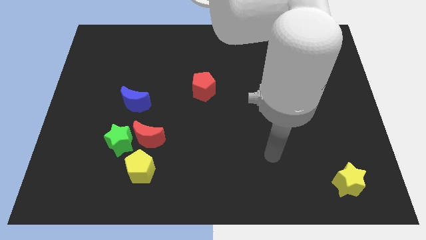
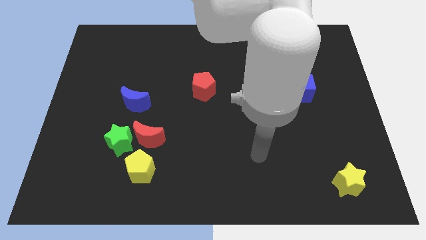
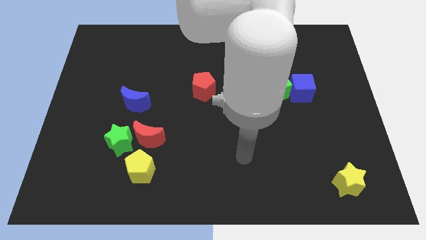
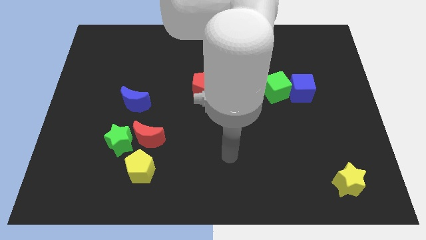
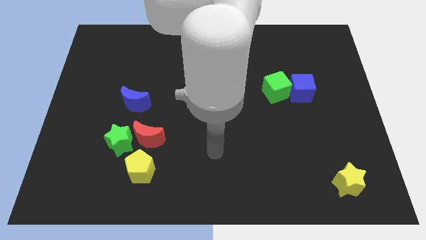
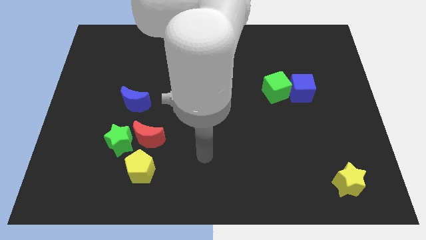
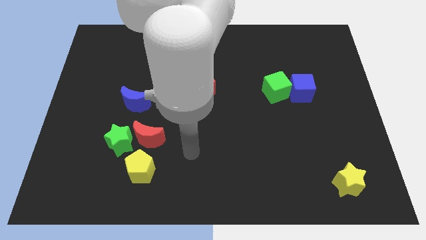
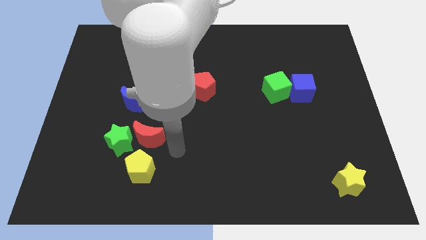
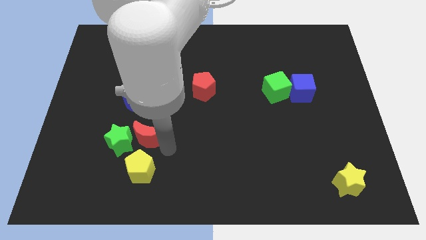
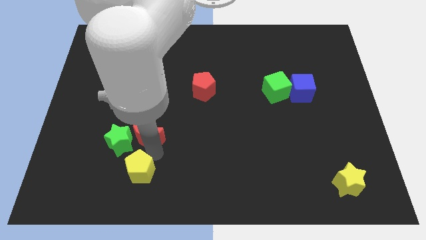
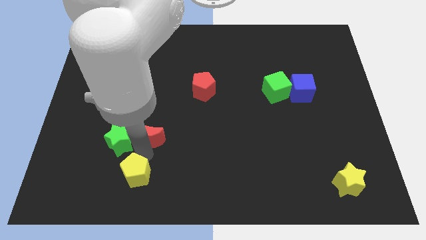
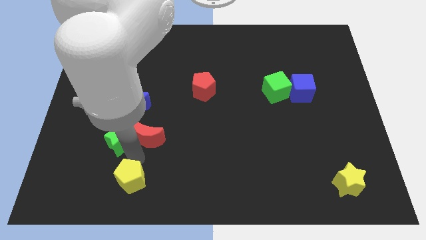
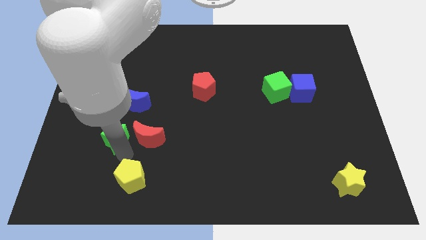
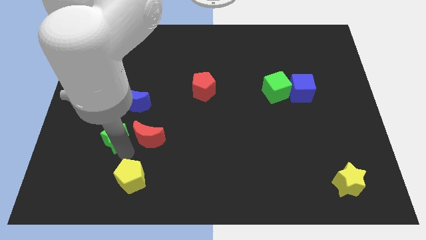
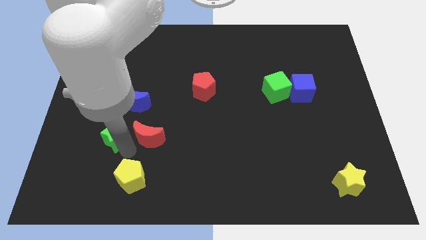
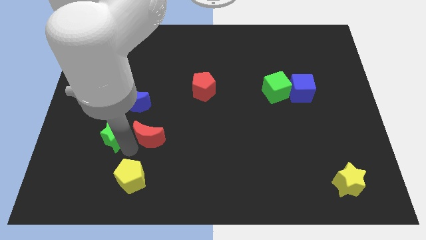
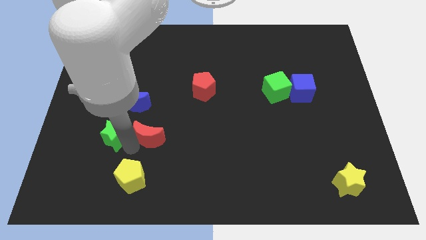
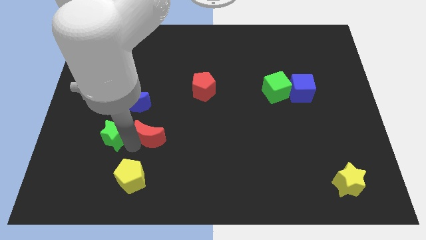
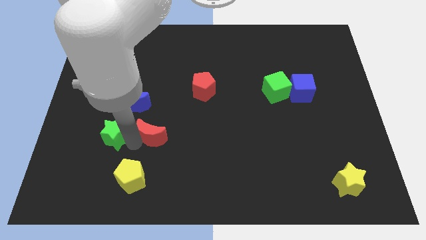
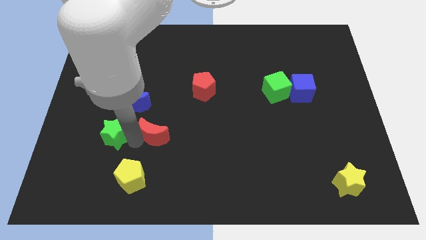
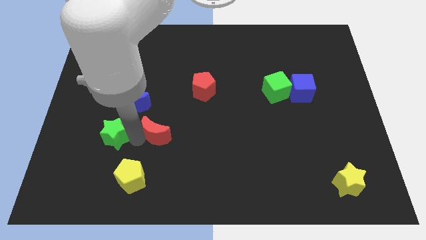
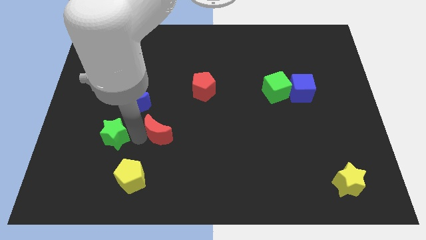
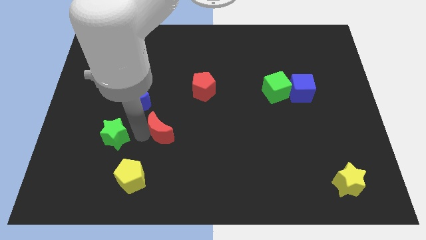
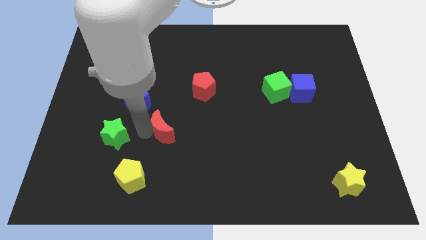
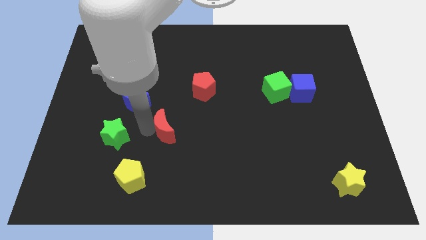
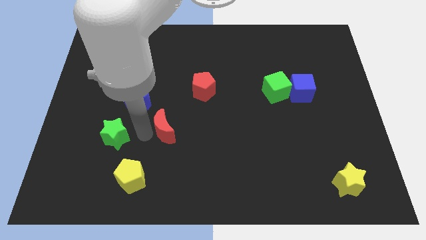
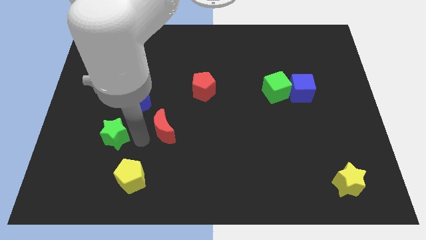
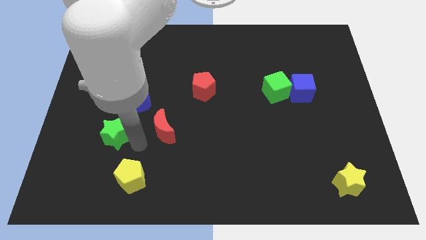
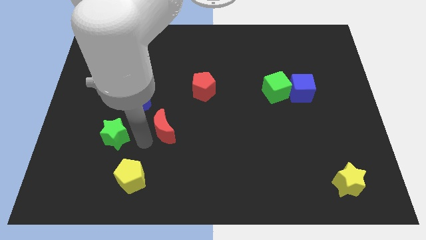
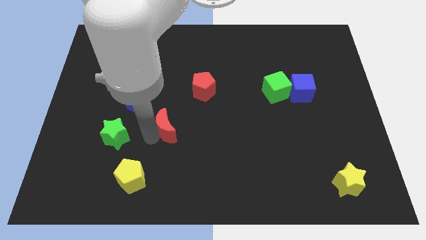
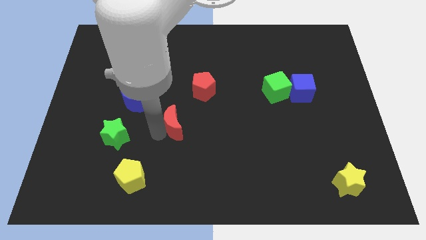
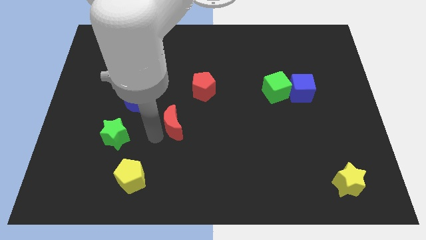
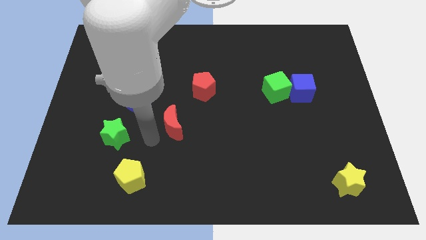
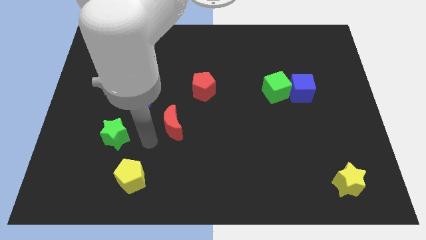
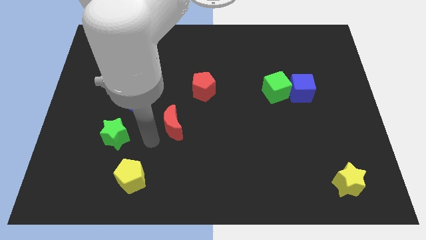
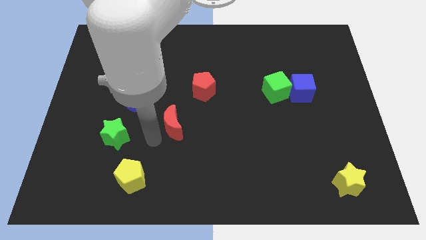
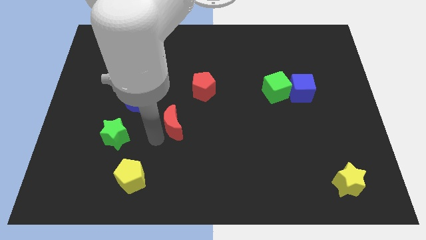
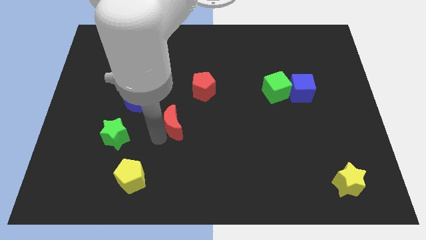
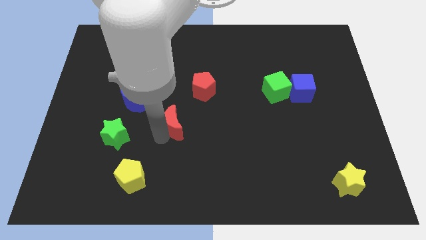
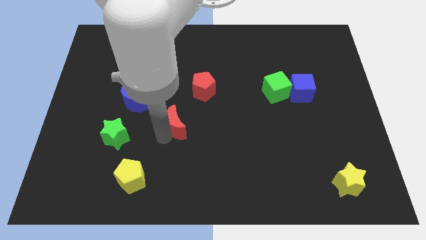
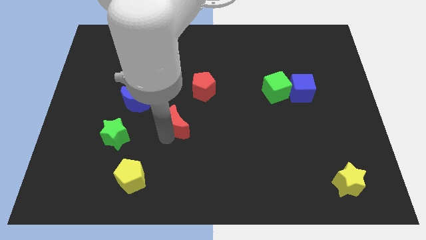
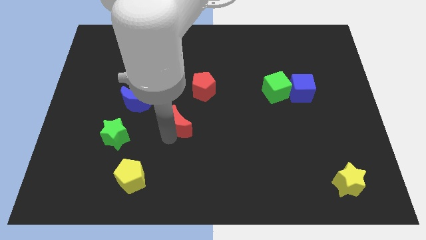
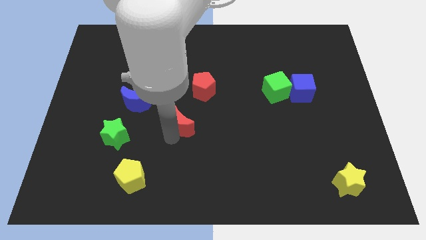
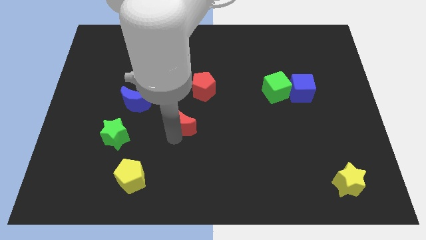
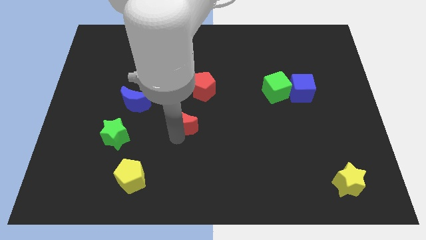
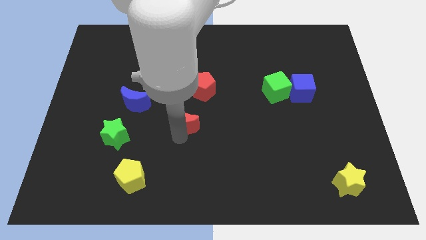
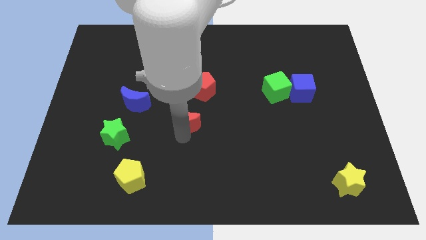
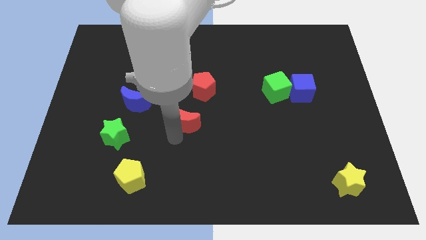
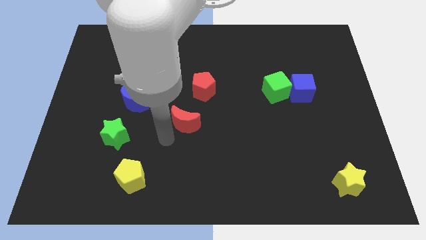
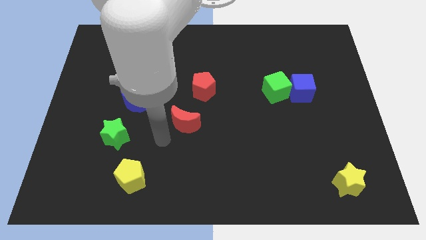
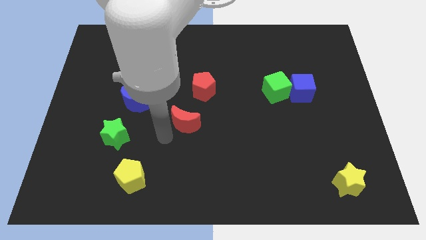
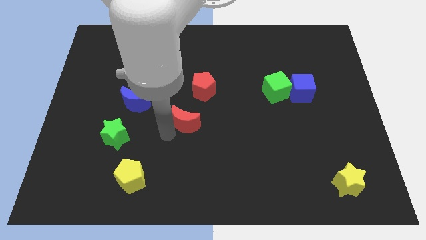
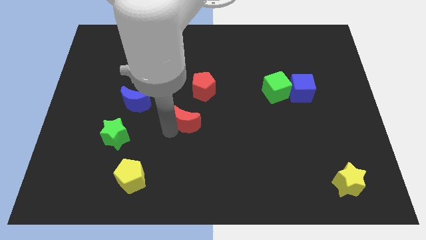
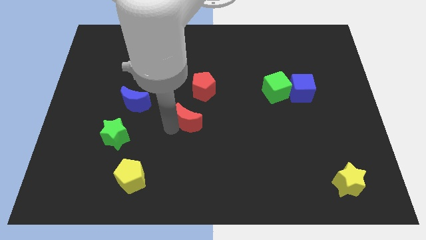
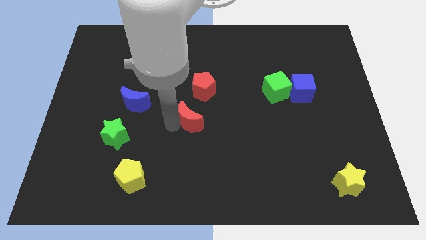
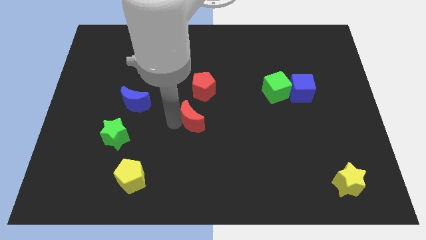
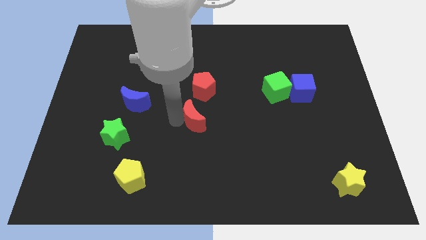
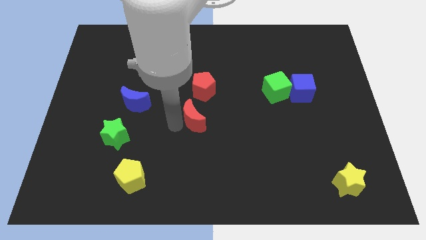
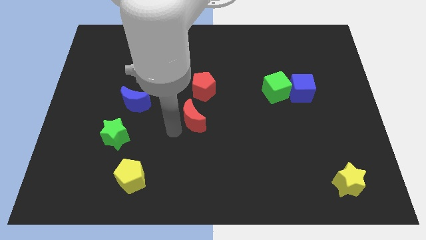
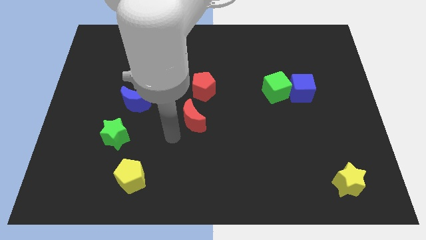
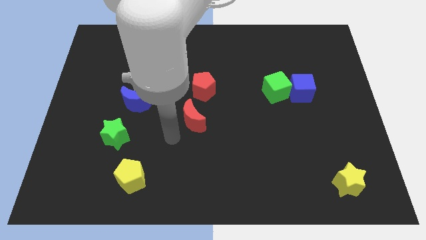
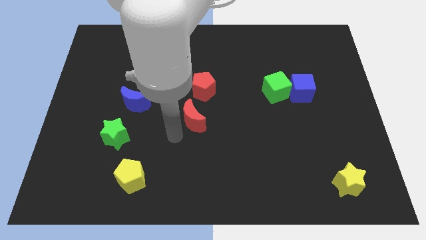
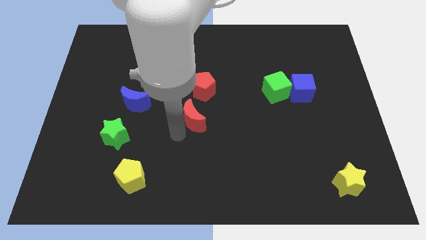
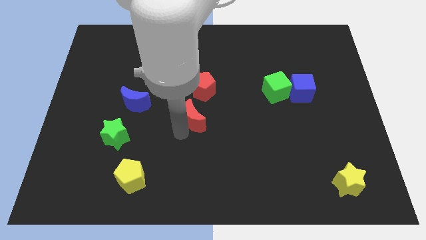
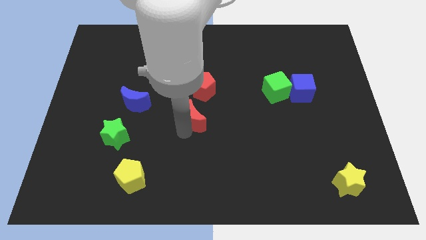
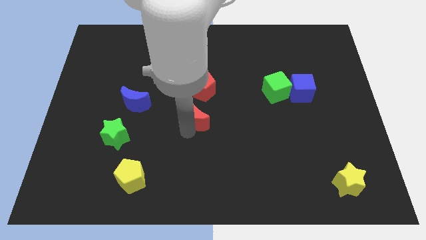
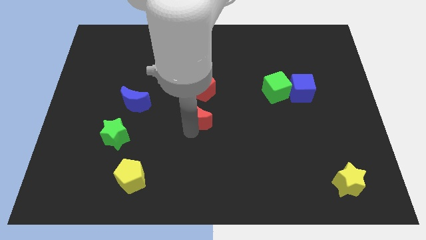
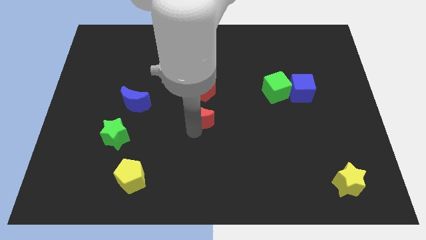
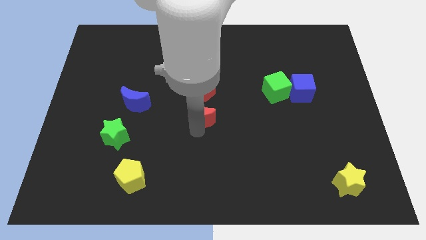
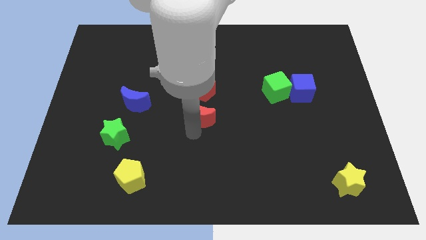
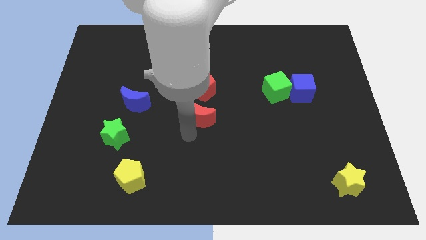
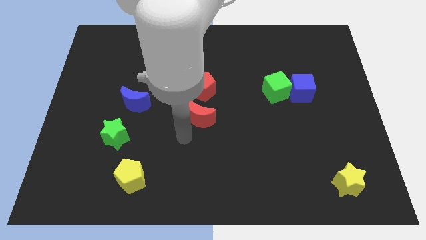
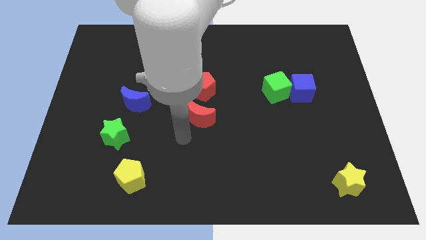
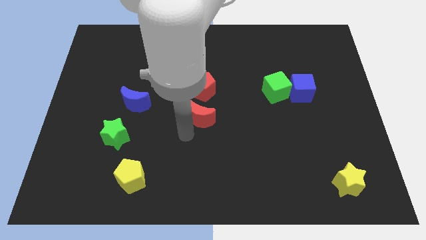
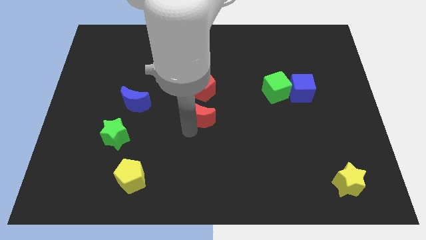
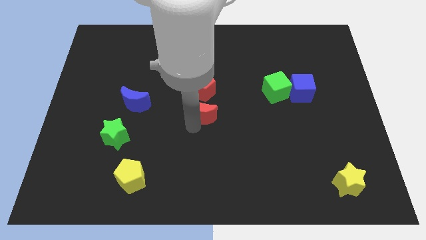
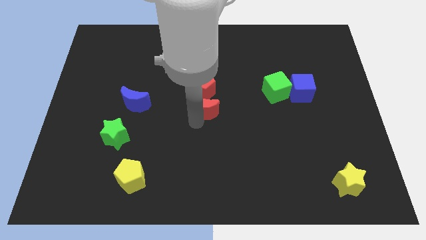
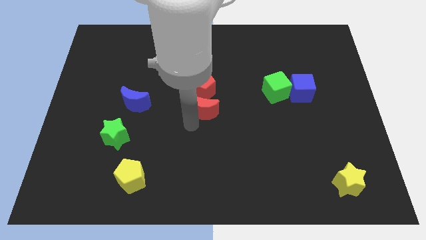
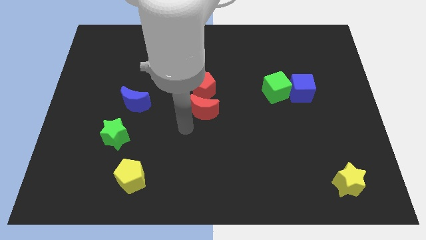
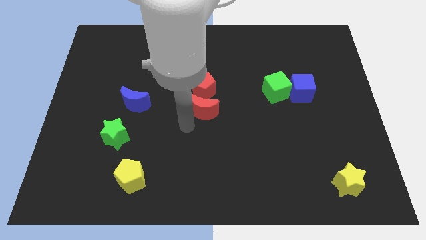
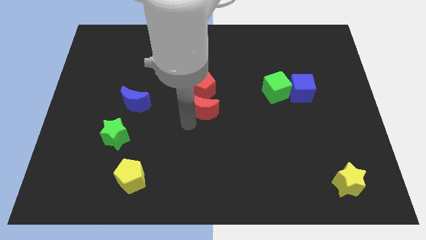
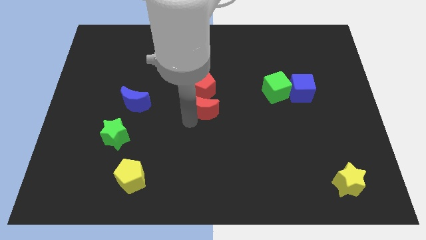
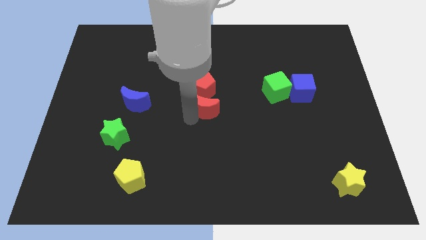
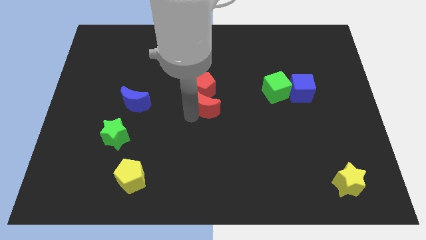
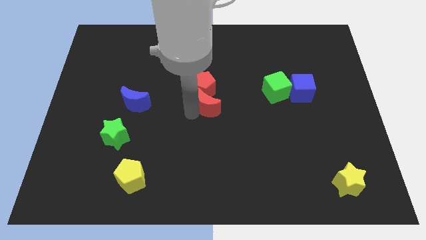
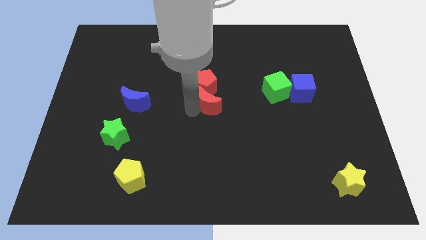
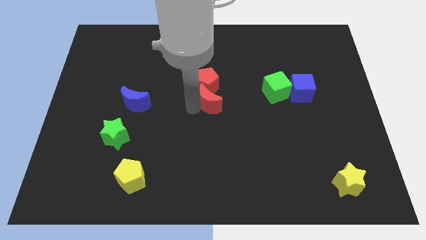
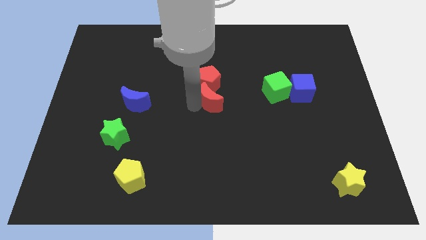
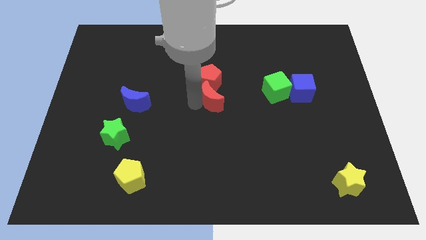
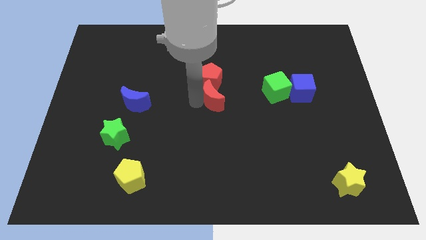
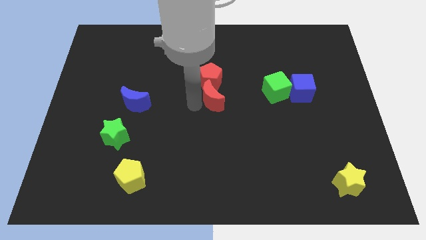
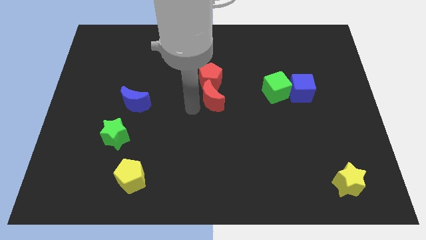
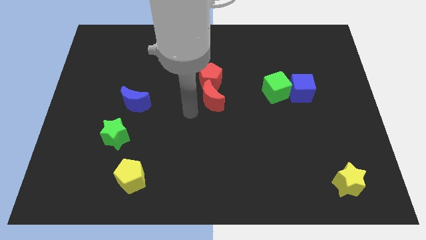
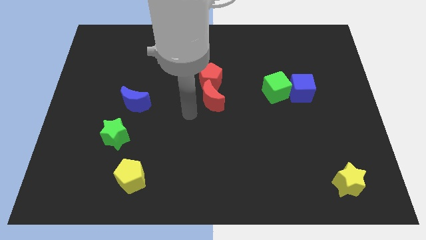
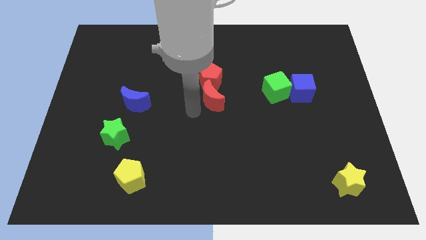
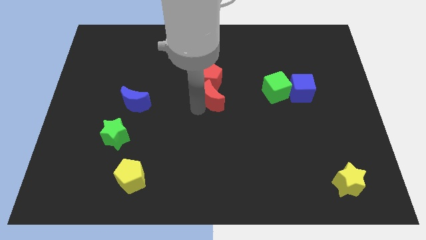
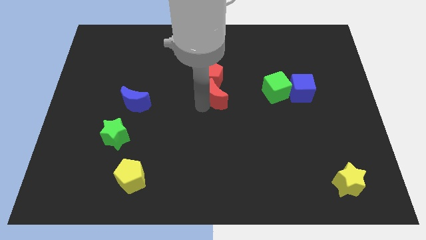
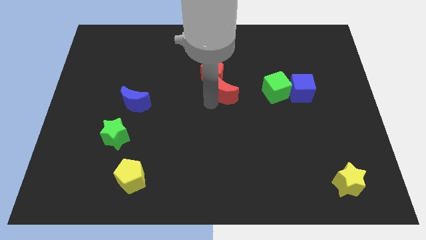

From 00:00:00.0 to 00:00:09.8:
slide the red moon up and to the right diagonally
